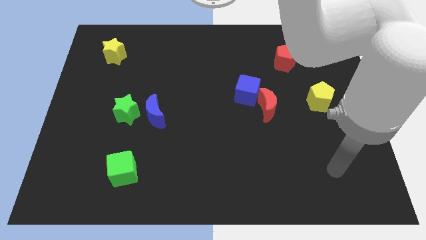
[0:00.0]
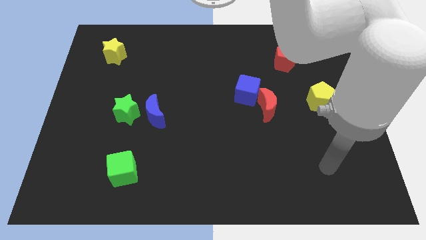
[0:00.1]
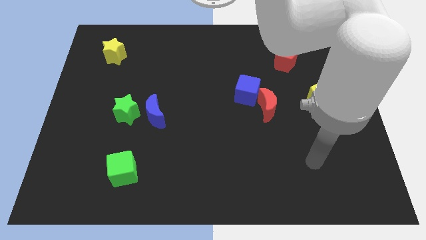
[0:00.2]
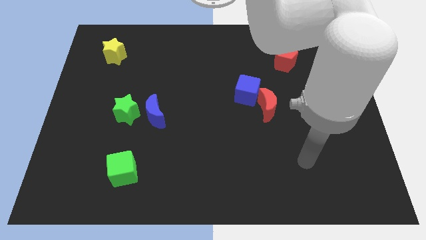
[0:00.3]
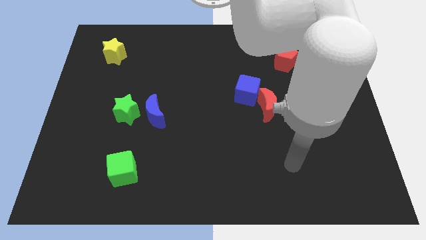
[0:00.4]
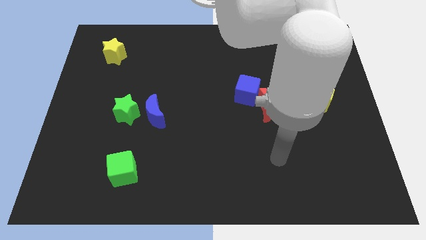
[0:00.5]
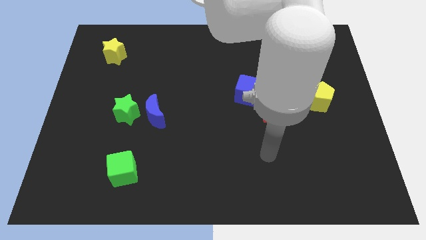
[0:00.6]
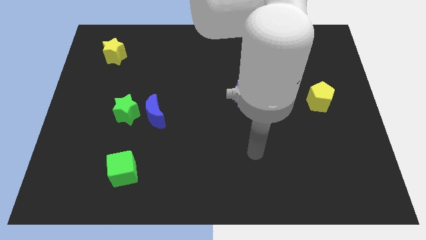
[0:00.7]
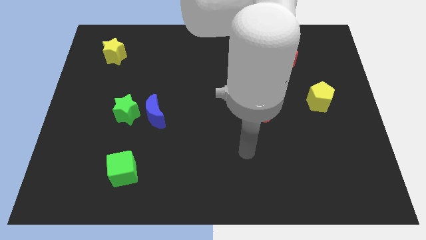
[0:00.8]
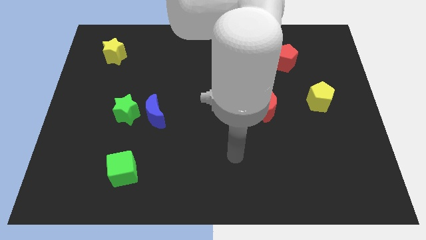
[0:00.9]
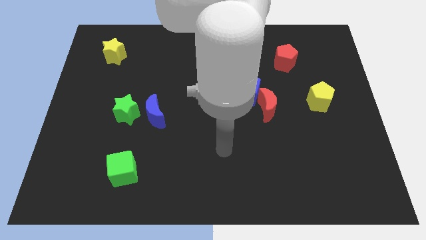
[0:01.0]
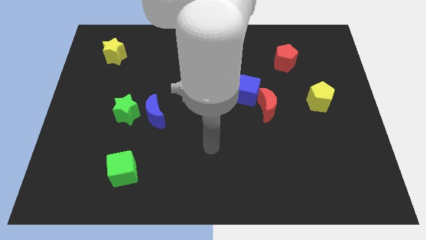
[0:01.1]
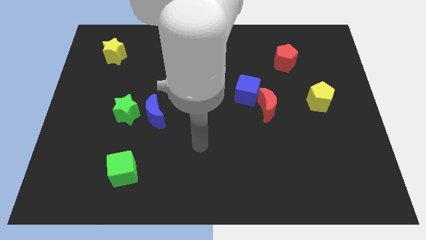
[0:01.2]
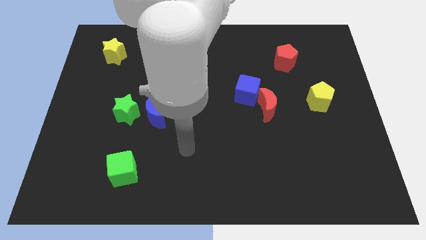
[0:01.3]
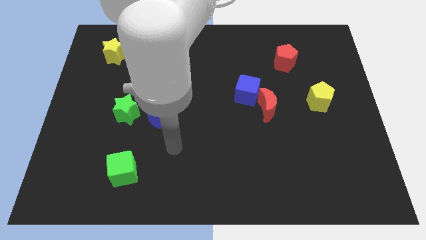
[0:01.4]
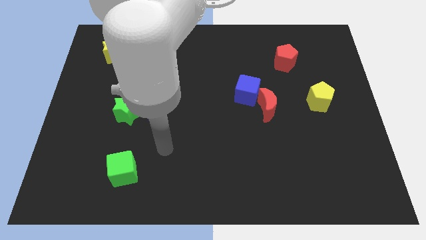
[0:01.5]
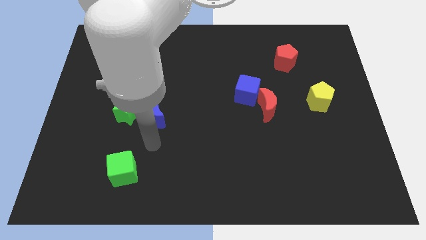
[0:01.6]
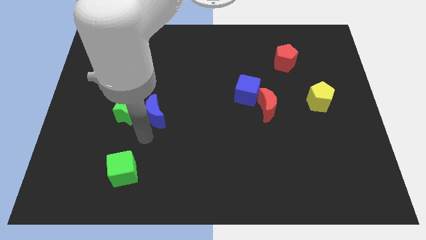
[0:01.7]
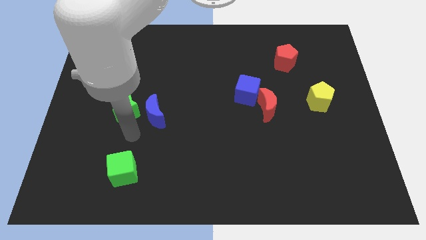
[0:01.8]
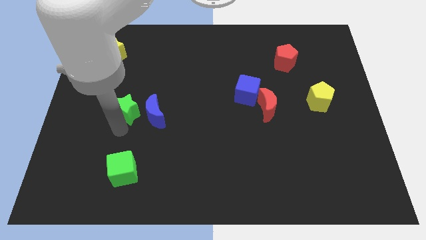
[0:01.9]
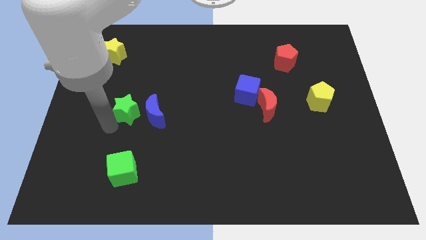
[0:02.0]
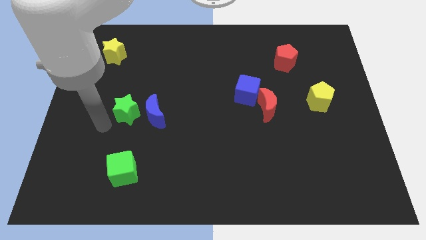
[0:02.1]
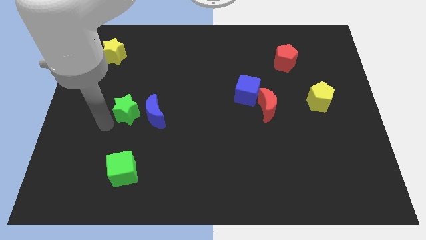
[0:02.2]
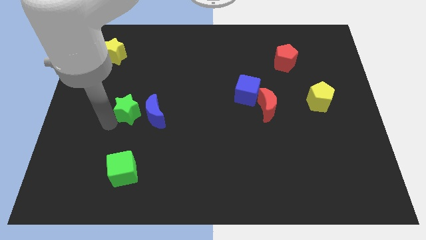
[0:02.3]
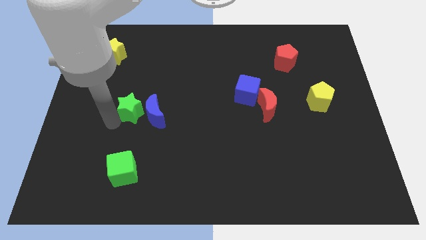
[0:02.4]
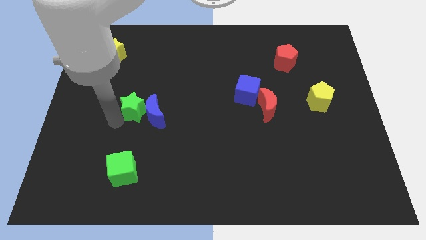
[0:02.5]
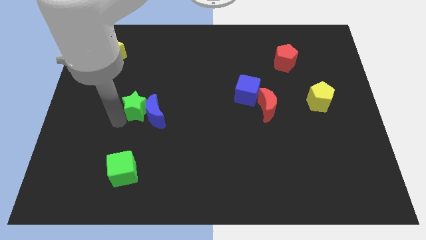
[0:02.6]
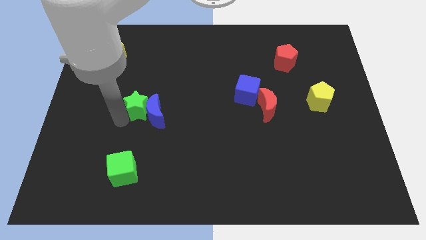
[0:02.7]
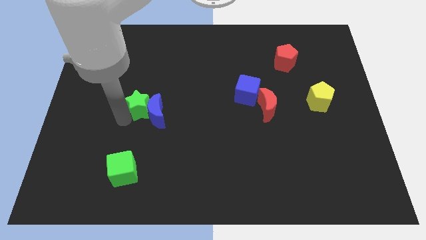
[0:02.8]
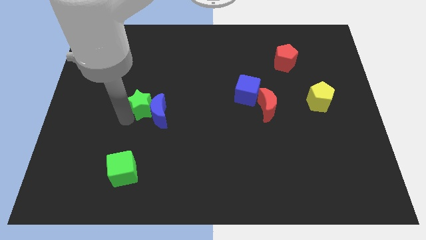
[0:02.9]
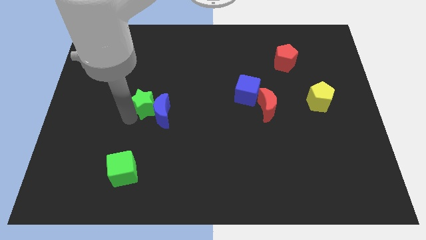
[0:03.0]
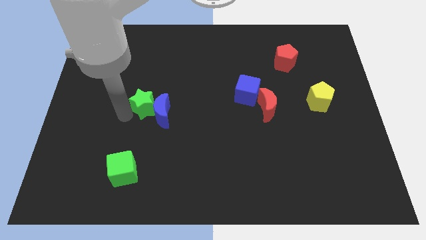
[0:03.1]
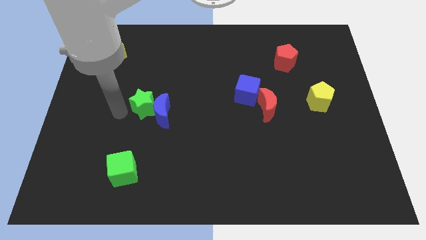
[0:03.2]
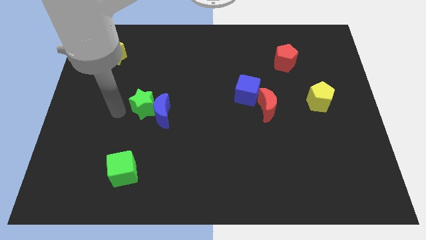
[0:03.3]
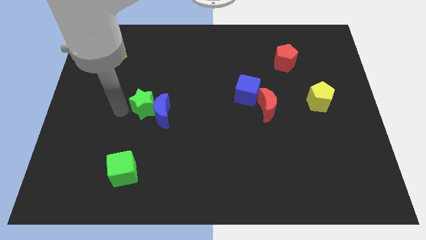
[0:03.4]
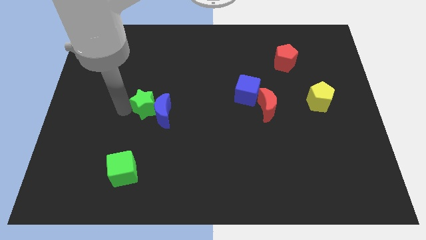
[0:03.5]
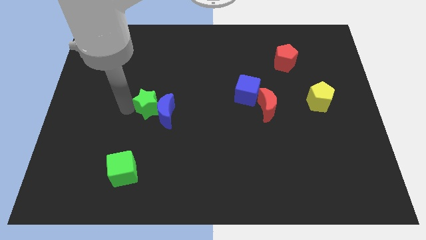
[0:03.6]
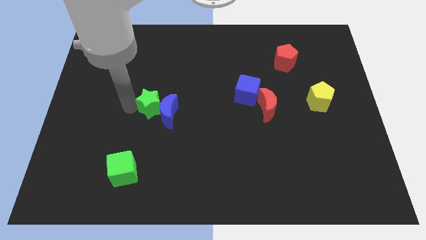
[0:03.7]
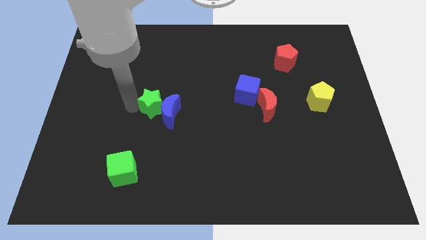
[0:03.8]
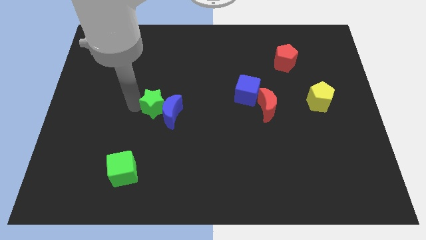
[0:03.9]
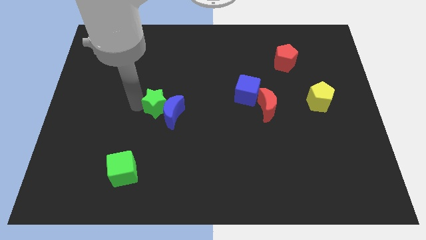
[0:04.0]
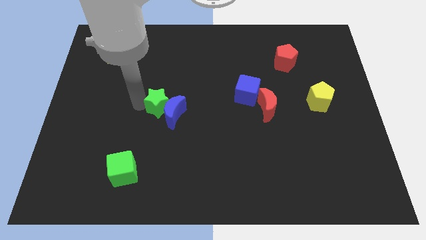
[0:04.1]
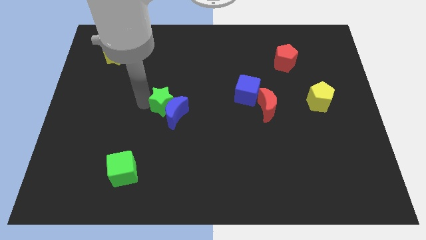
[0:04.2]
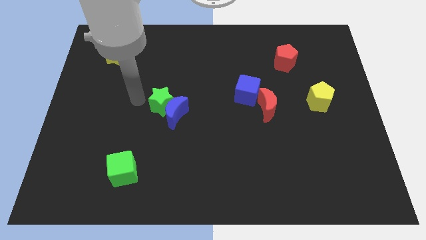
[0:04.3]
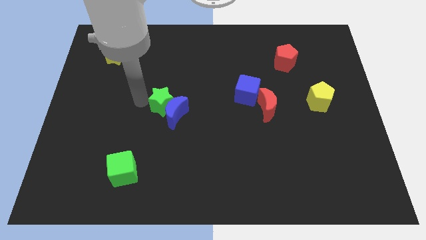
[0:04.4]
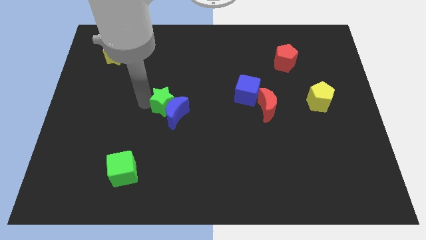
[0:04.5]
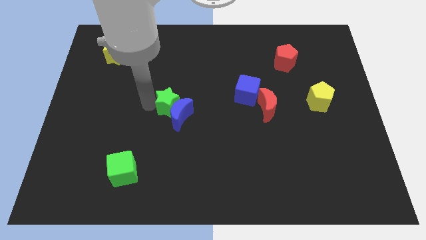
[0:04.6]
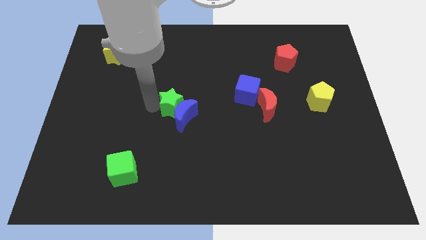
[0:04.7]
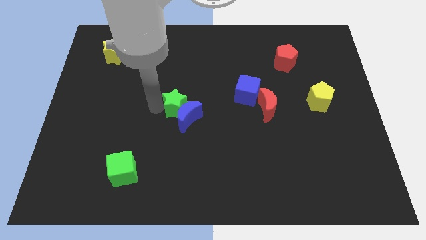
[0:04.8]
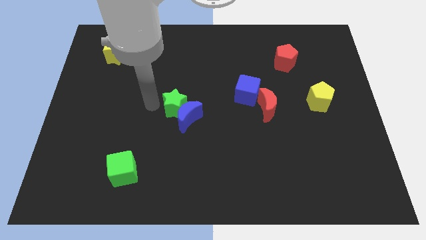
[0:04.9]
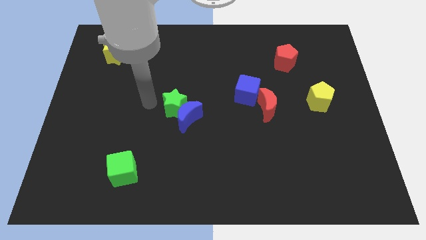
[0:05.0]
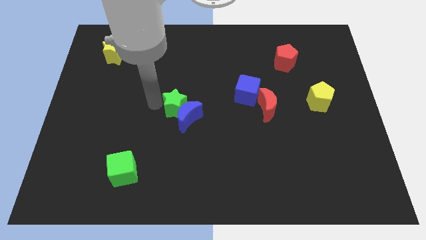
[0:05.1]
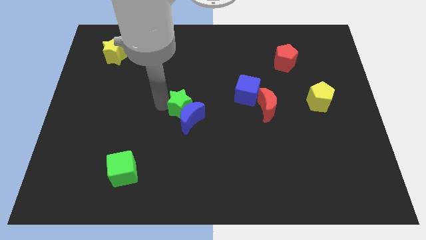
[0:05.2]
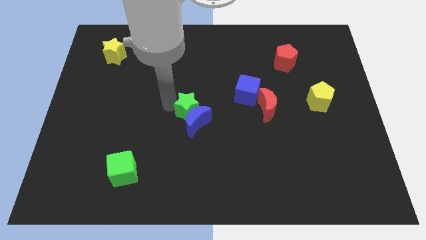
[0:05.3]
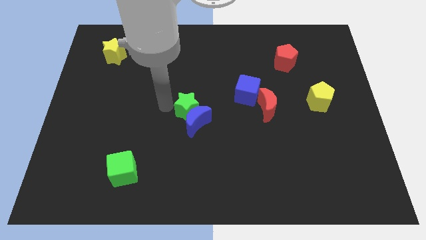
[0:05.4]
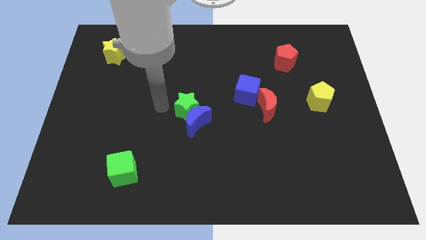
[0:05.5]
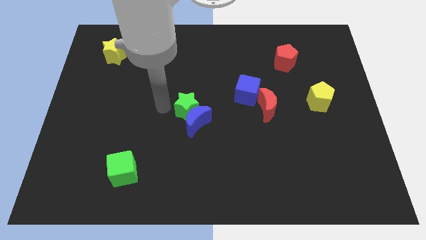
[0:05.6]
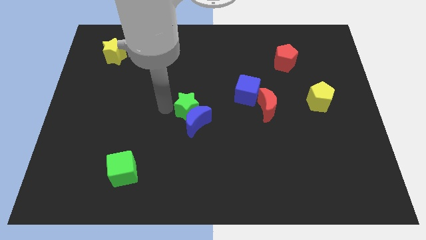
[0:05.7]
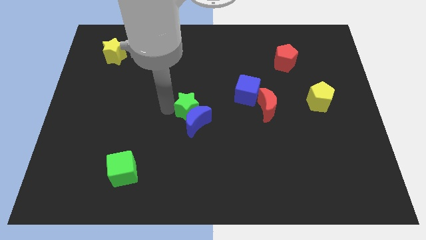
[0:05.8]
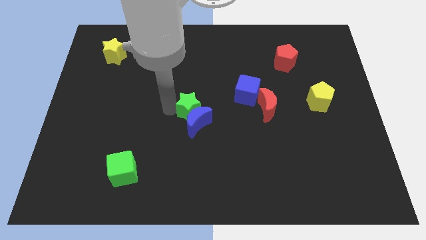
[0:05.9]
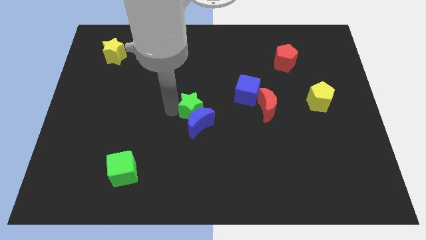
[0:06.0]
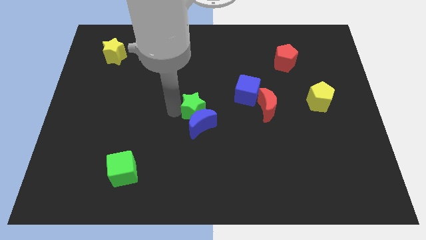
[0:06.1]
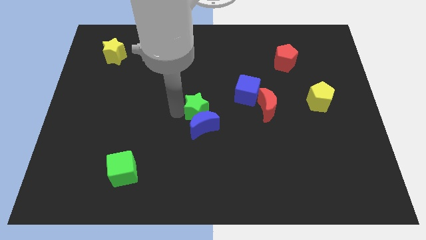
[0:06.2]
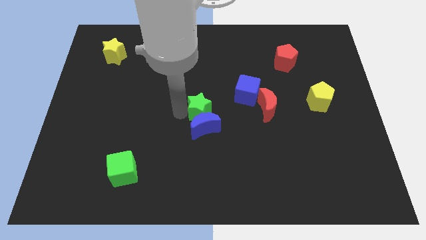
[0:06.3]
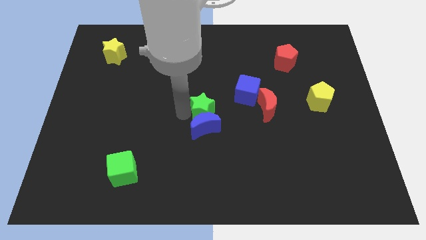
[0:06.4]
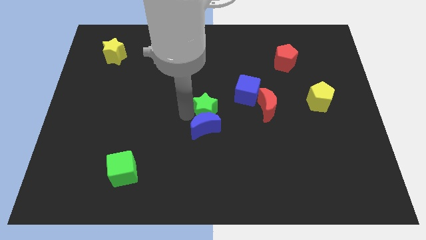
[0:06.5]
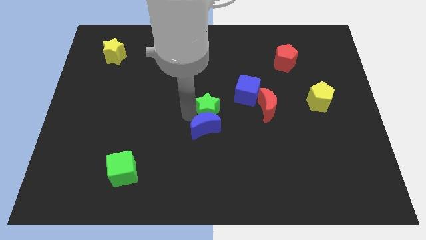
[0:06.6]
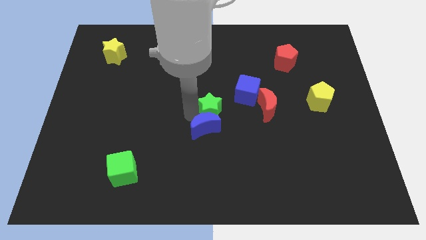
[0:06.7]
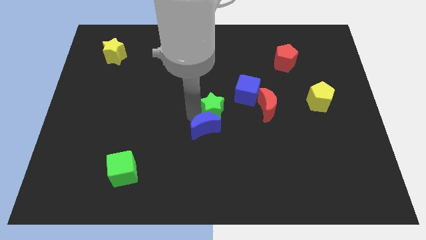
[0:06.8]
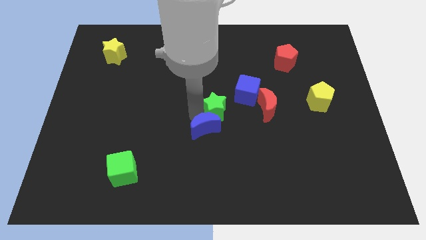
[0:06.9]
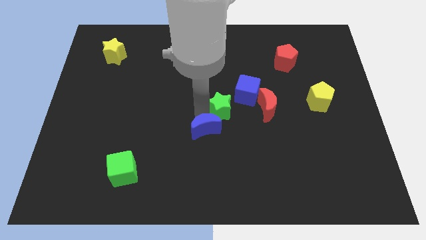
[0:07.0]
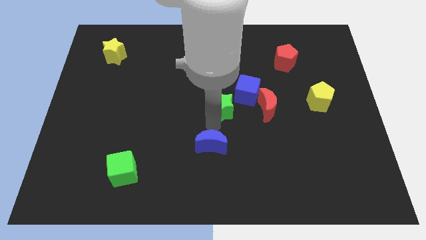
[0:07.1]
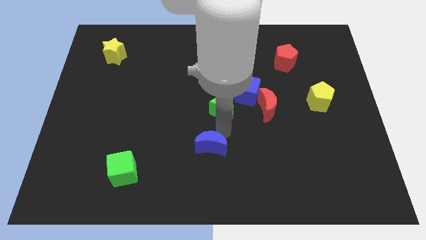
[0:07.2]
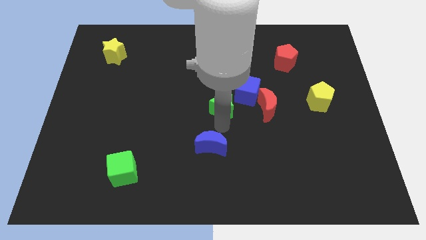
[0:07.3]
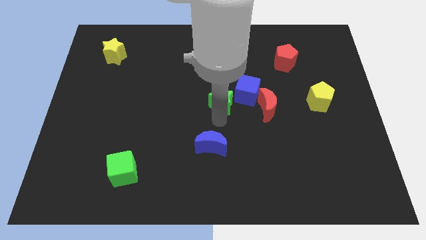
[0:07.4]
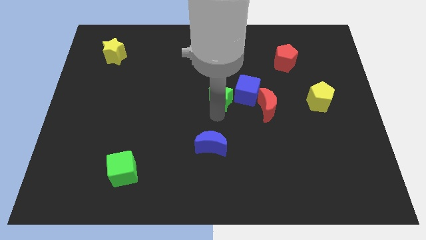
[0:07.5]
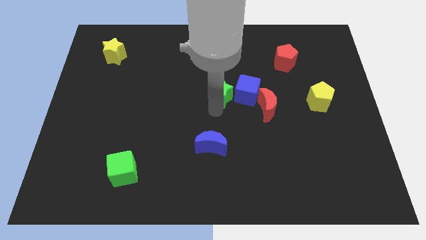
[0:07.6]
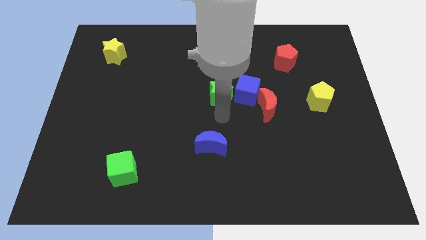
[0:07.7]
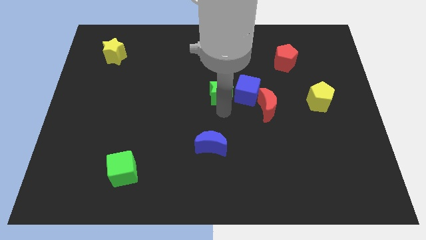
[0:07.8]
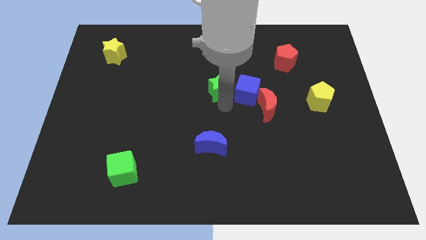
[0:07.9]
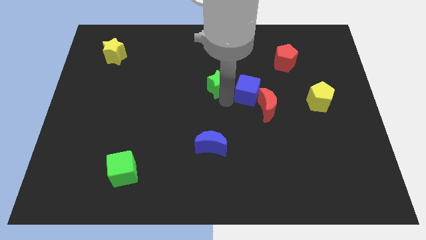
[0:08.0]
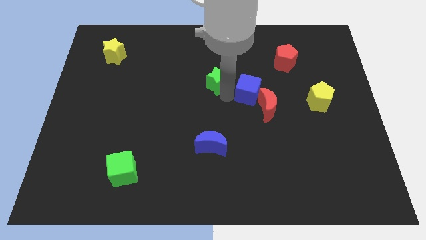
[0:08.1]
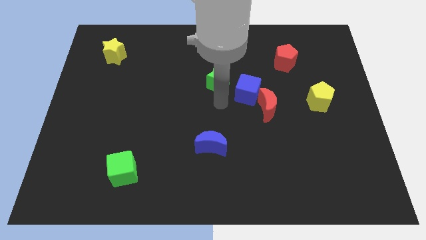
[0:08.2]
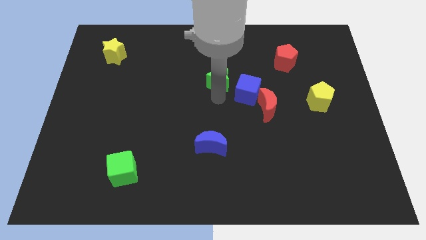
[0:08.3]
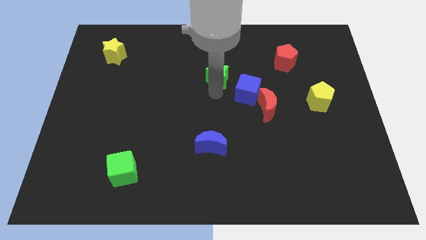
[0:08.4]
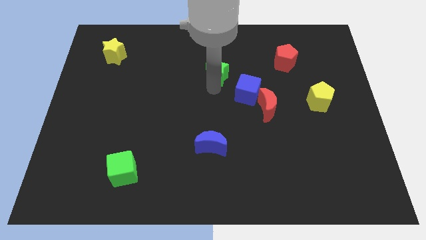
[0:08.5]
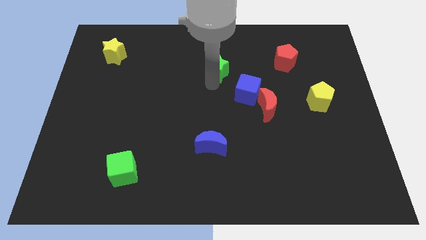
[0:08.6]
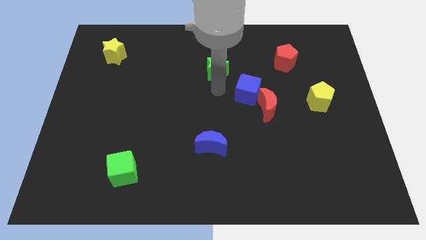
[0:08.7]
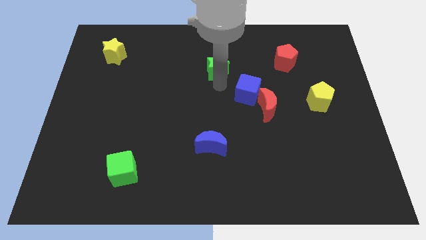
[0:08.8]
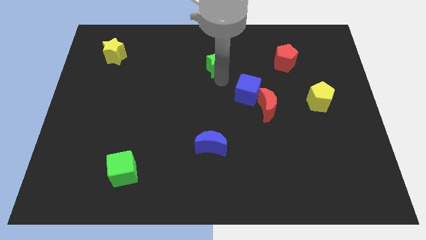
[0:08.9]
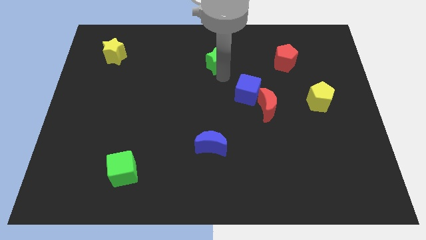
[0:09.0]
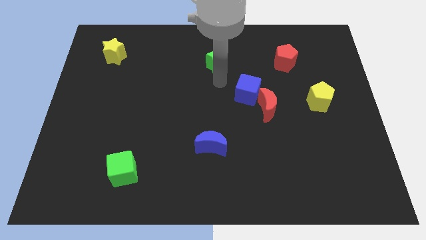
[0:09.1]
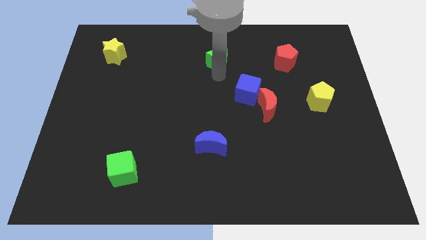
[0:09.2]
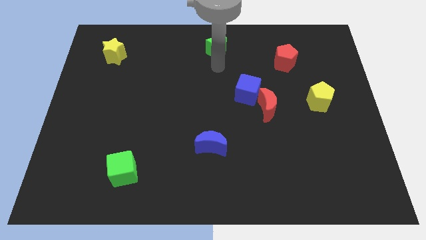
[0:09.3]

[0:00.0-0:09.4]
put the green star to the top side
